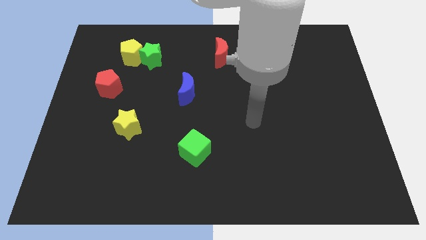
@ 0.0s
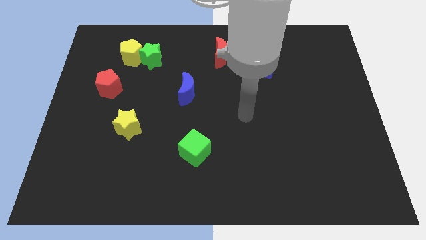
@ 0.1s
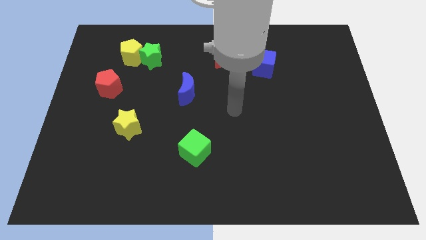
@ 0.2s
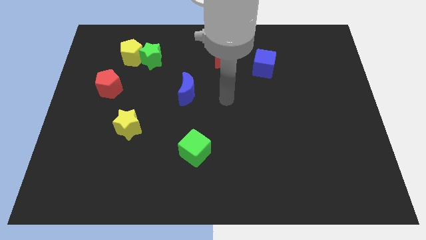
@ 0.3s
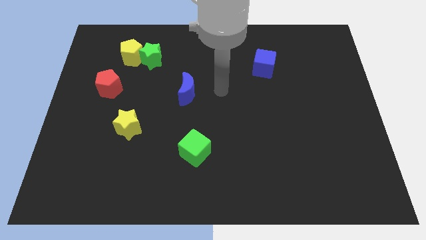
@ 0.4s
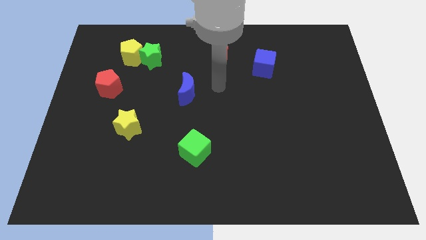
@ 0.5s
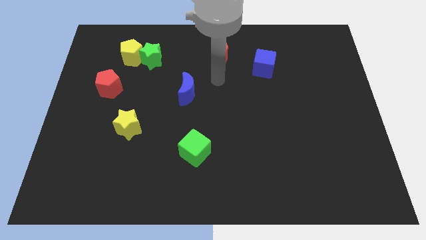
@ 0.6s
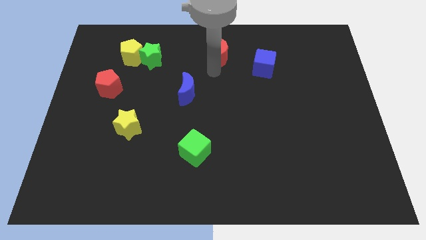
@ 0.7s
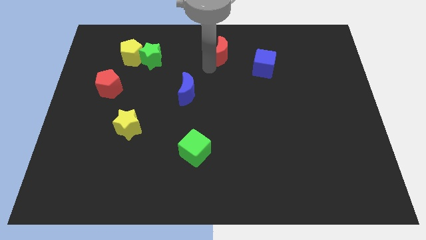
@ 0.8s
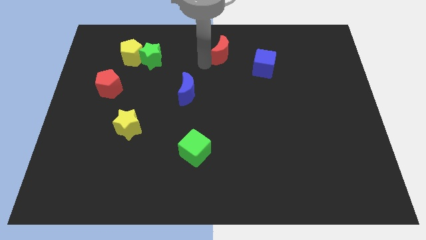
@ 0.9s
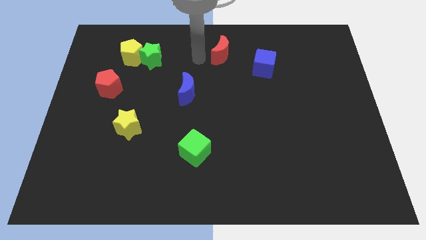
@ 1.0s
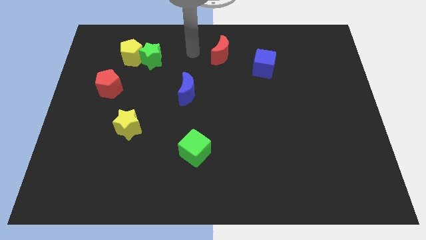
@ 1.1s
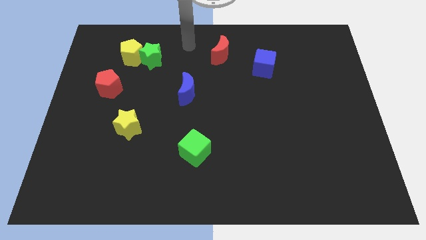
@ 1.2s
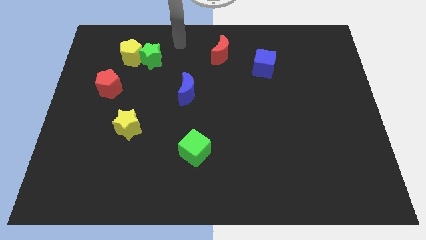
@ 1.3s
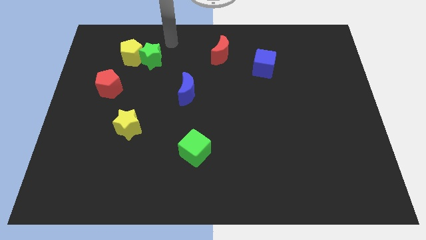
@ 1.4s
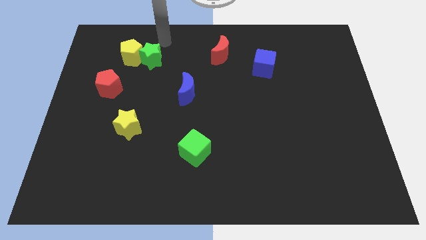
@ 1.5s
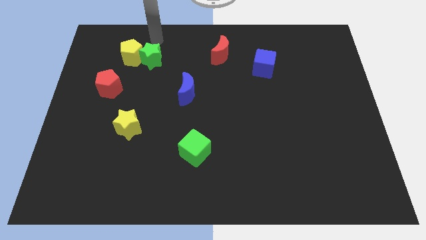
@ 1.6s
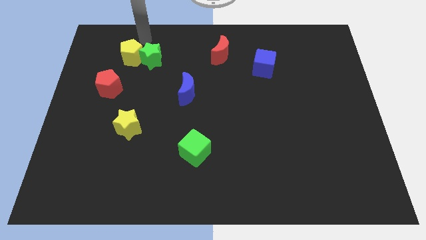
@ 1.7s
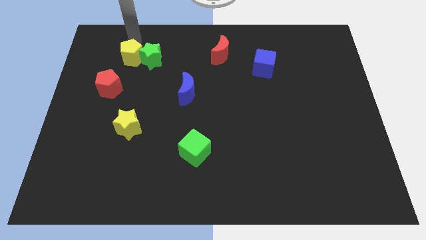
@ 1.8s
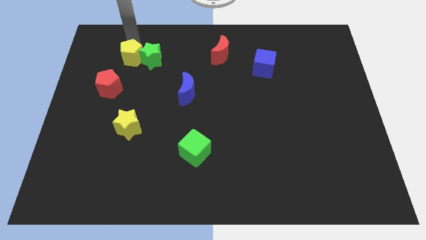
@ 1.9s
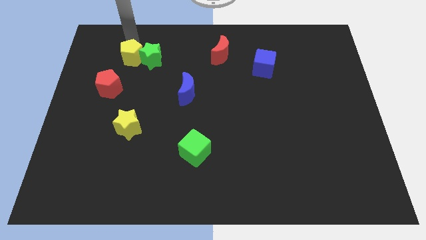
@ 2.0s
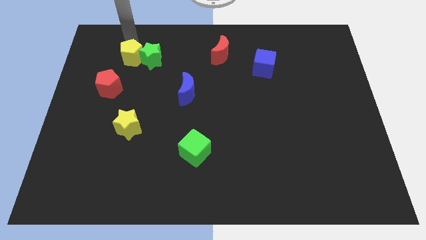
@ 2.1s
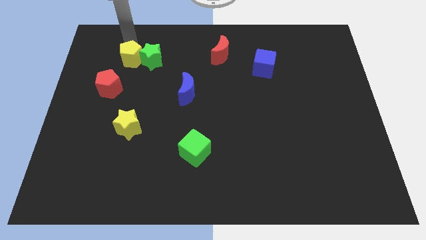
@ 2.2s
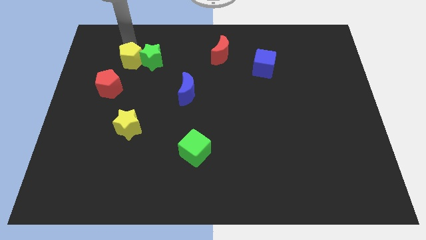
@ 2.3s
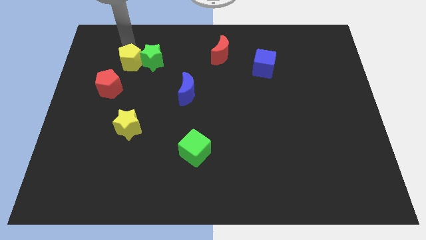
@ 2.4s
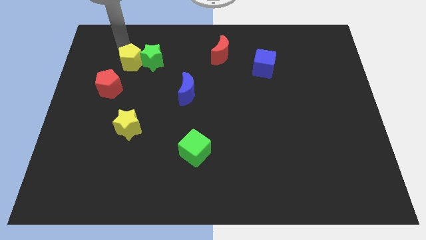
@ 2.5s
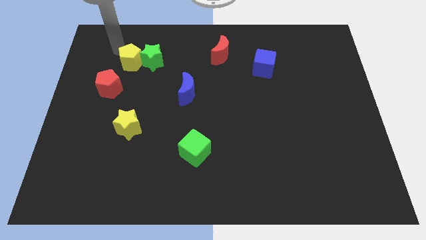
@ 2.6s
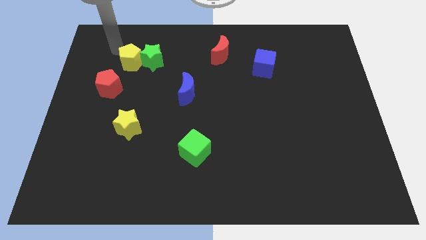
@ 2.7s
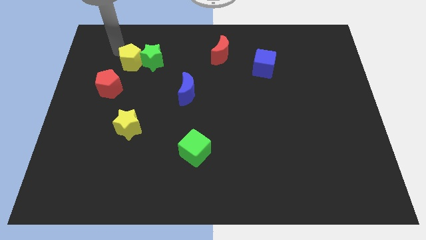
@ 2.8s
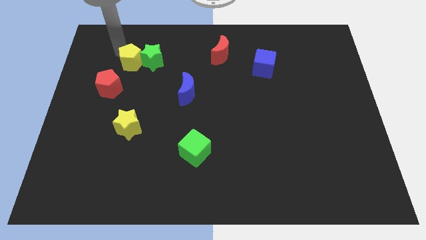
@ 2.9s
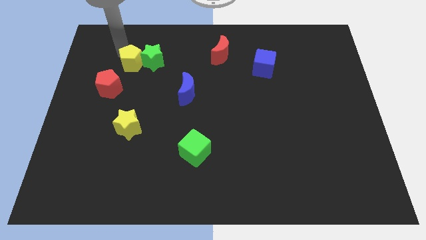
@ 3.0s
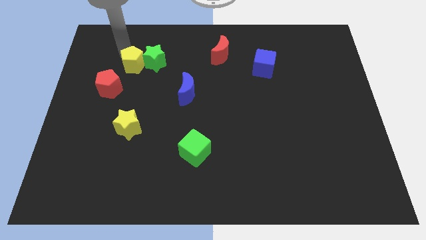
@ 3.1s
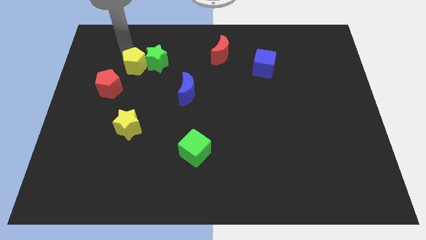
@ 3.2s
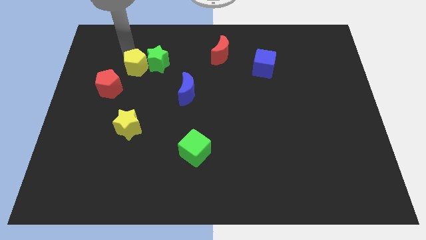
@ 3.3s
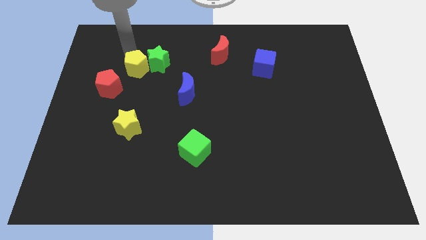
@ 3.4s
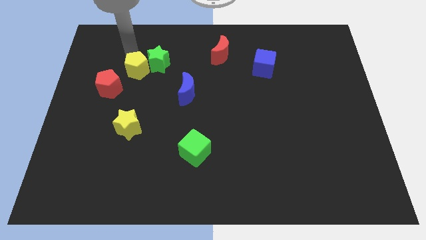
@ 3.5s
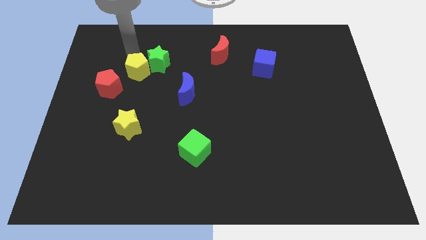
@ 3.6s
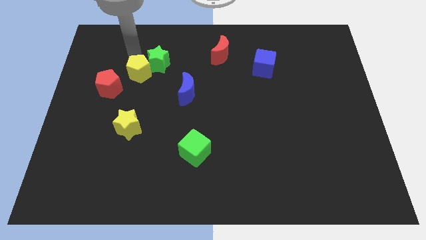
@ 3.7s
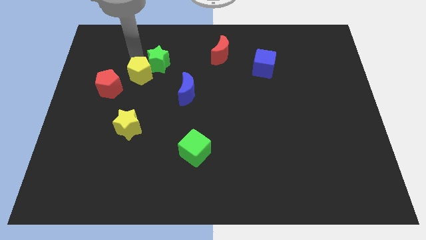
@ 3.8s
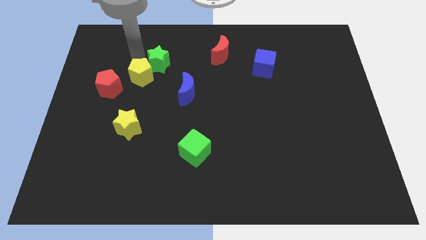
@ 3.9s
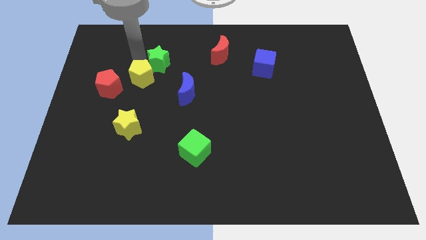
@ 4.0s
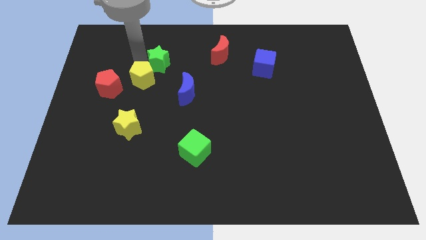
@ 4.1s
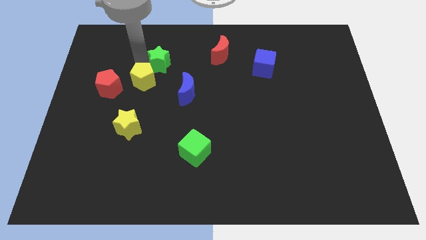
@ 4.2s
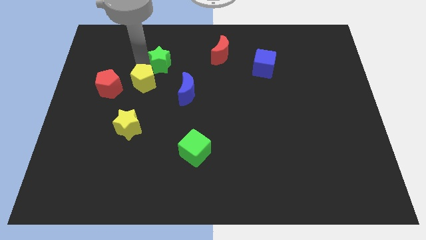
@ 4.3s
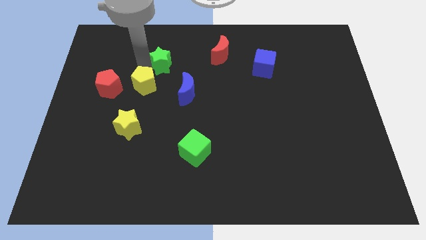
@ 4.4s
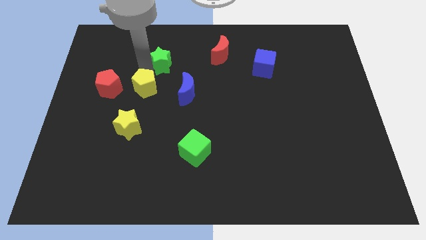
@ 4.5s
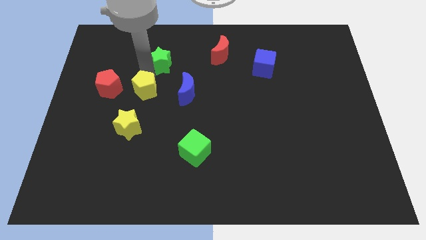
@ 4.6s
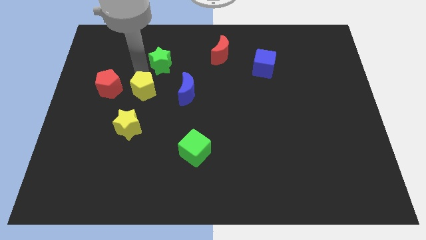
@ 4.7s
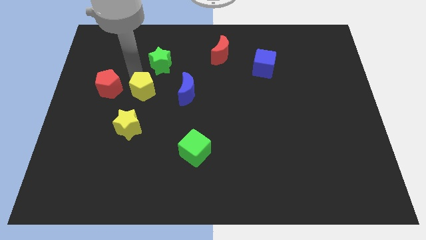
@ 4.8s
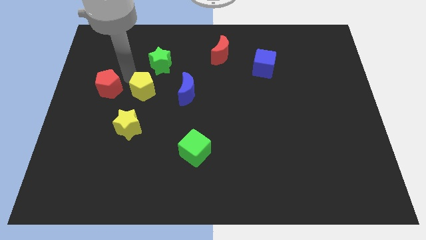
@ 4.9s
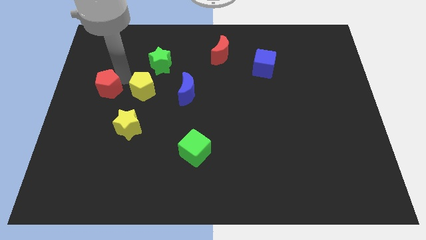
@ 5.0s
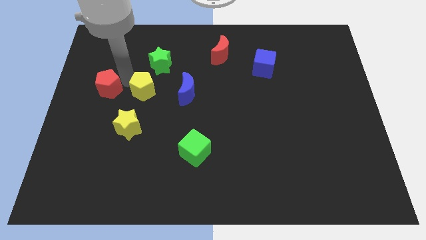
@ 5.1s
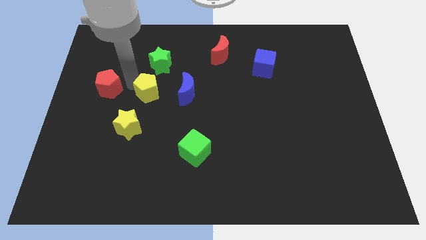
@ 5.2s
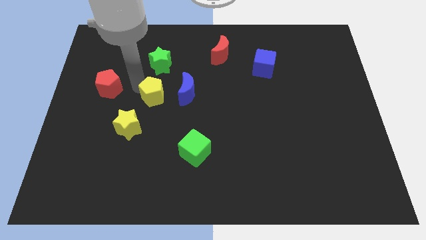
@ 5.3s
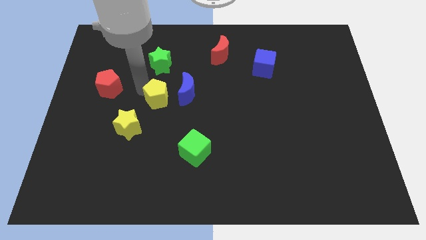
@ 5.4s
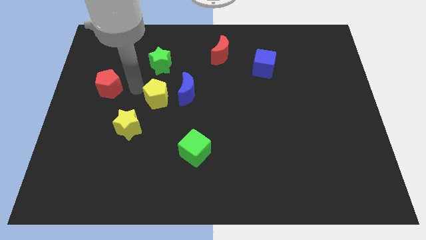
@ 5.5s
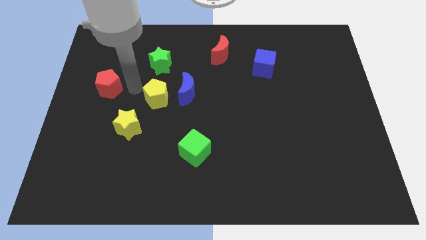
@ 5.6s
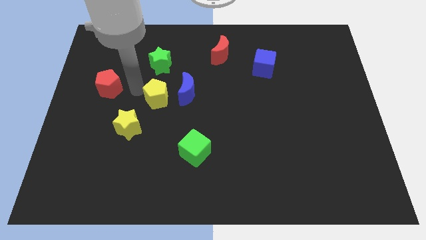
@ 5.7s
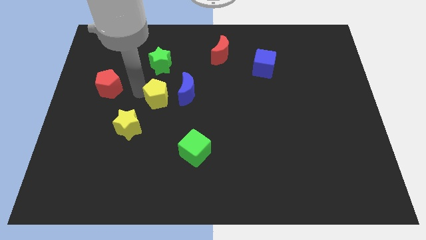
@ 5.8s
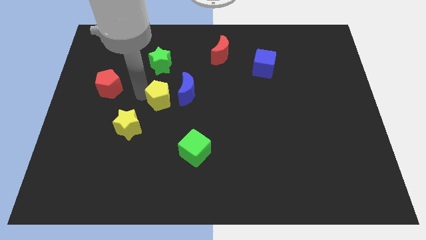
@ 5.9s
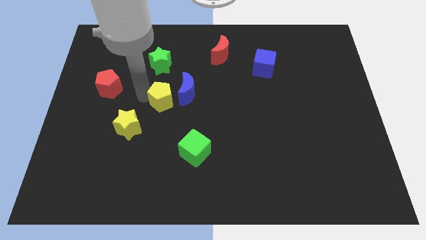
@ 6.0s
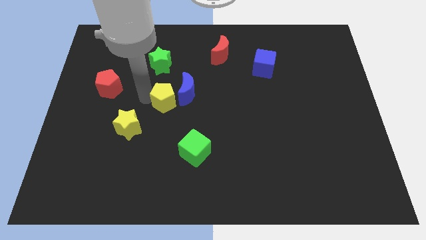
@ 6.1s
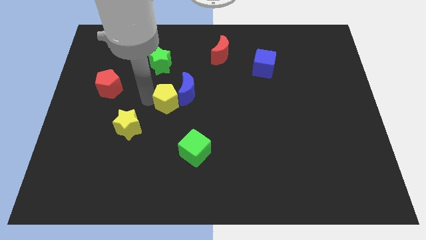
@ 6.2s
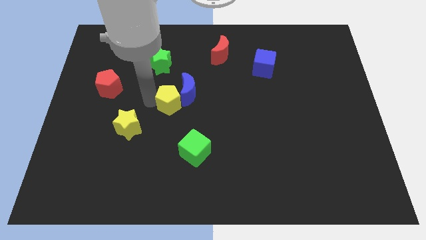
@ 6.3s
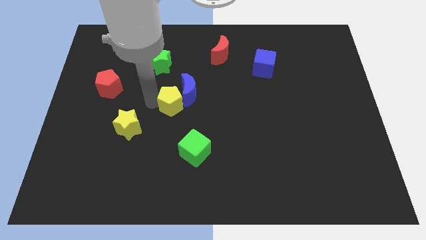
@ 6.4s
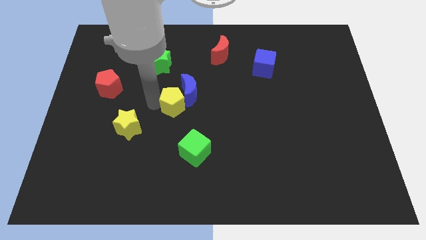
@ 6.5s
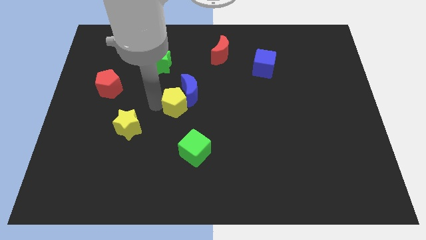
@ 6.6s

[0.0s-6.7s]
push the yellow pentagon downwards and then right

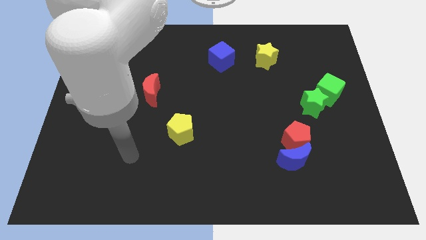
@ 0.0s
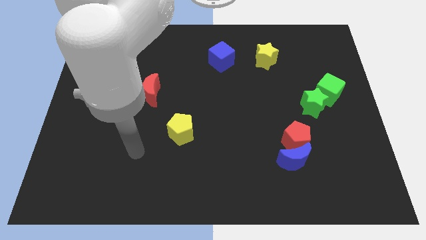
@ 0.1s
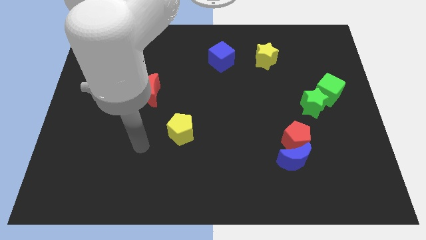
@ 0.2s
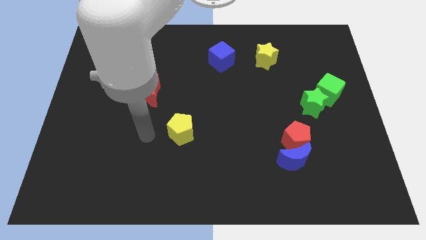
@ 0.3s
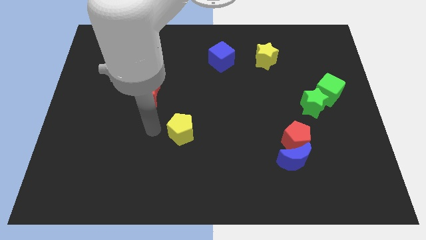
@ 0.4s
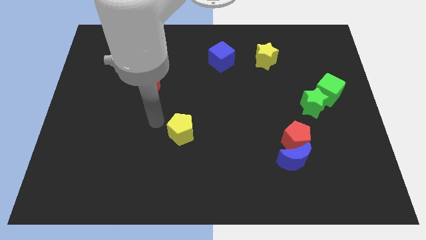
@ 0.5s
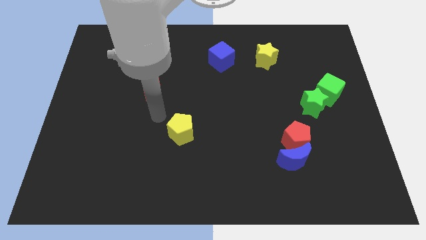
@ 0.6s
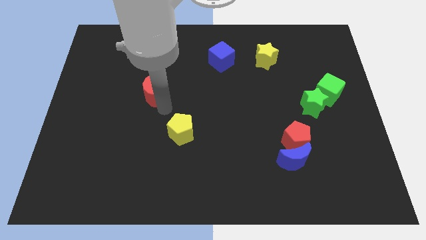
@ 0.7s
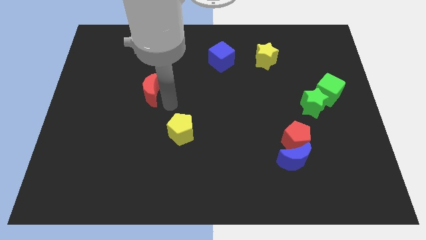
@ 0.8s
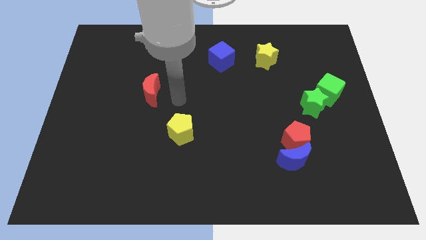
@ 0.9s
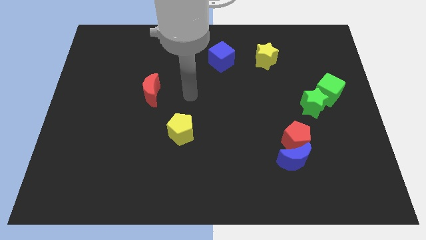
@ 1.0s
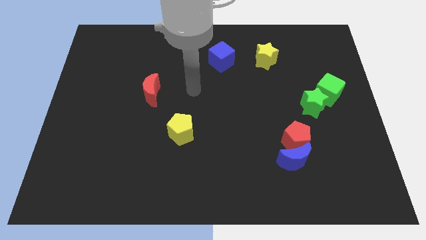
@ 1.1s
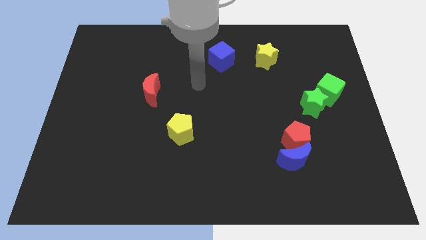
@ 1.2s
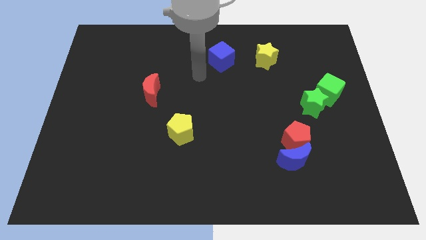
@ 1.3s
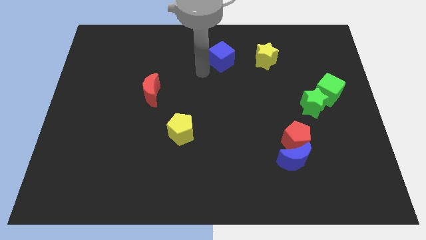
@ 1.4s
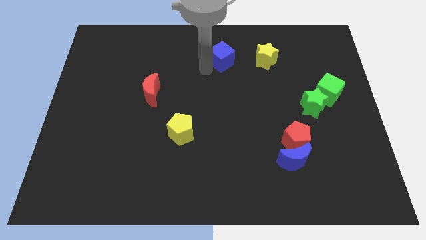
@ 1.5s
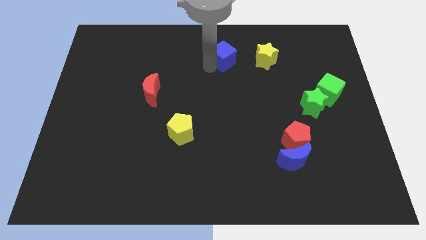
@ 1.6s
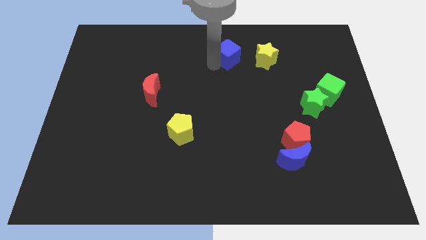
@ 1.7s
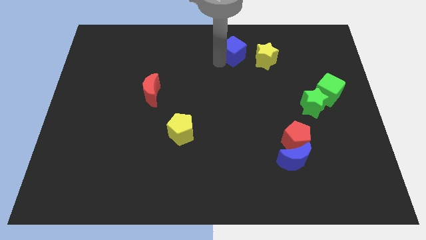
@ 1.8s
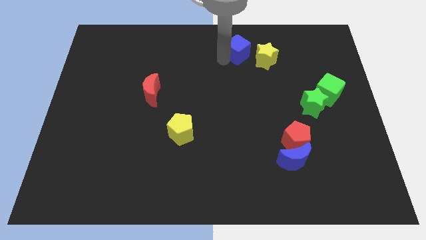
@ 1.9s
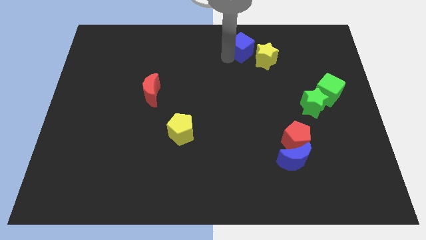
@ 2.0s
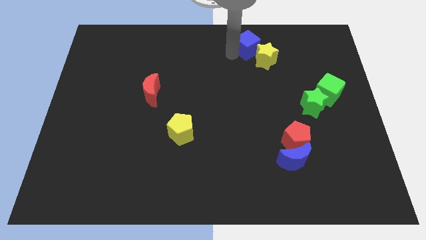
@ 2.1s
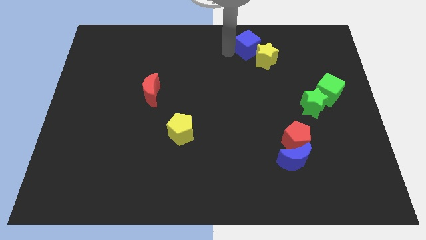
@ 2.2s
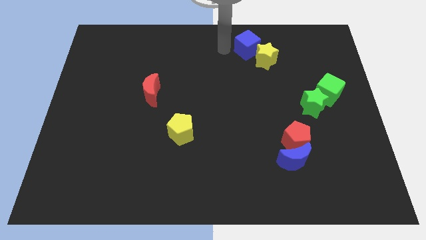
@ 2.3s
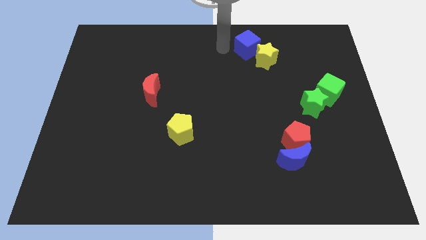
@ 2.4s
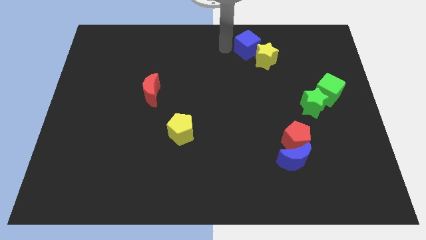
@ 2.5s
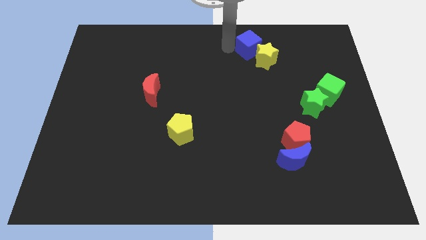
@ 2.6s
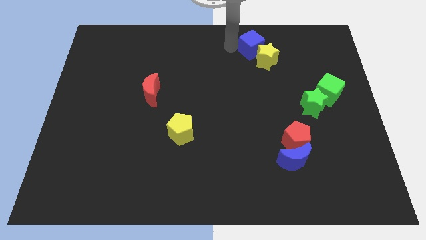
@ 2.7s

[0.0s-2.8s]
slightly slide the blue cube to the right
